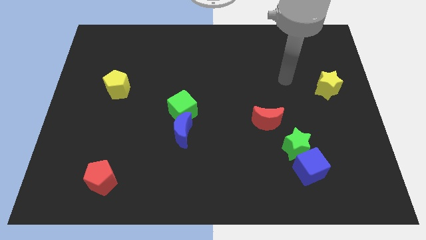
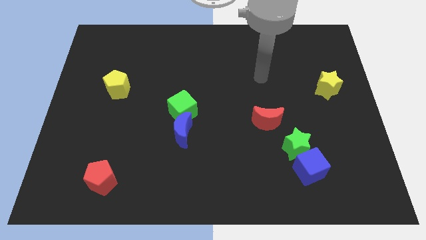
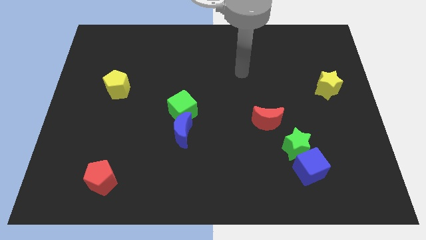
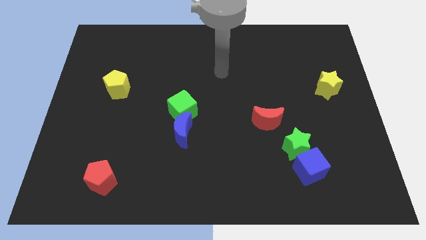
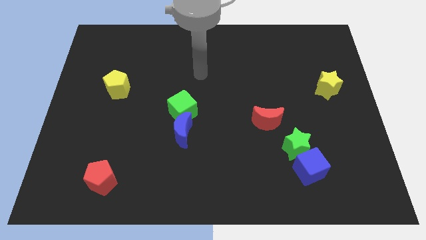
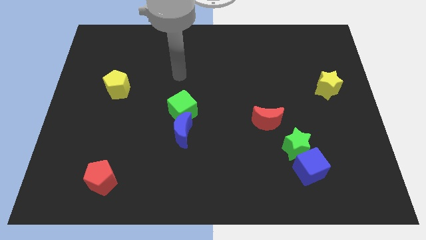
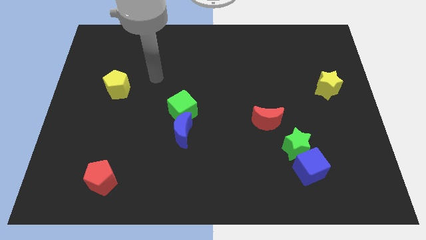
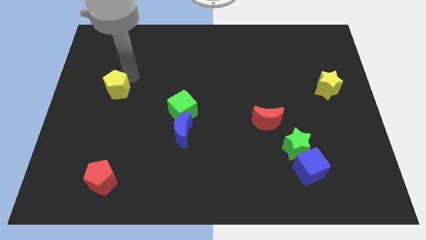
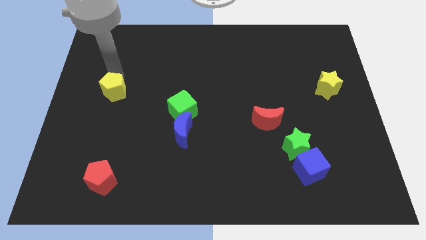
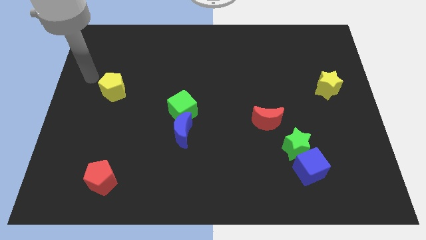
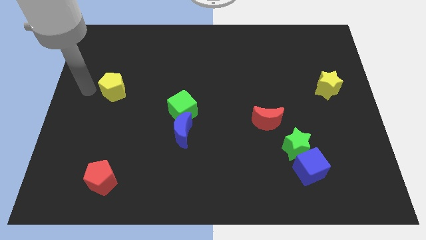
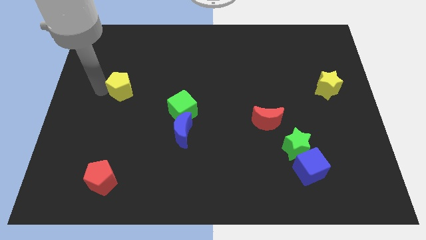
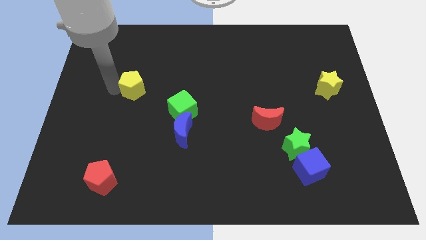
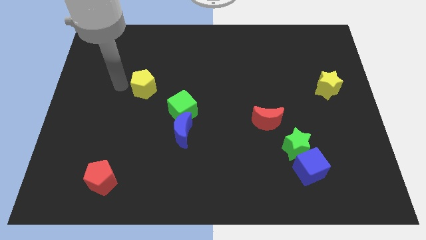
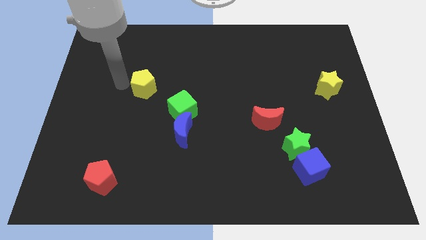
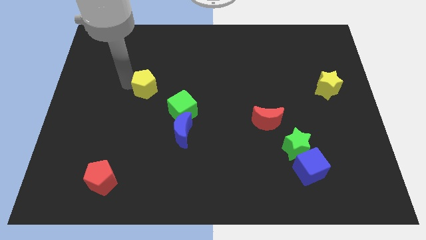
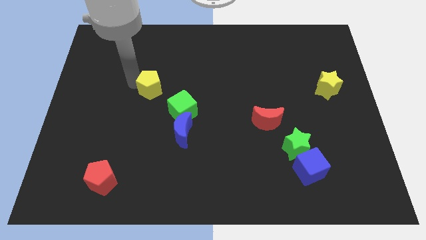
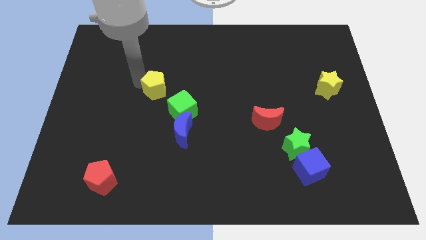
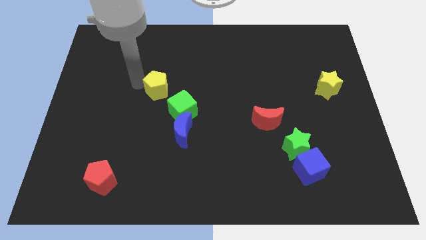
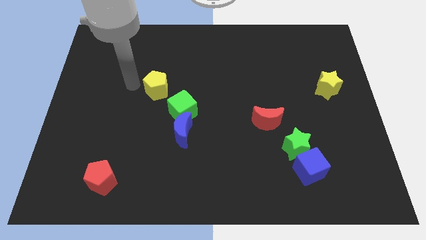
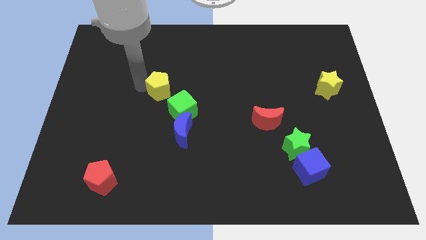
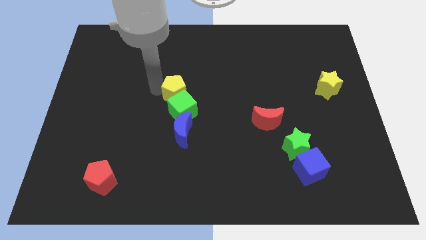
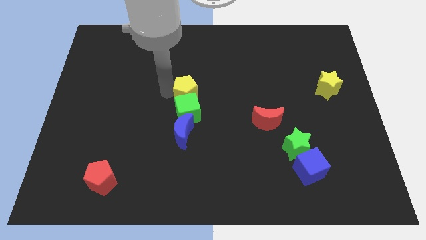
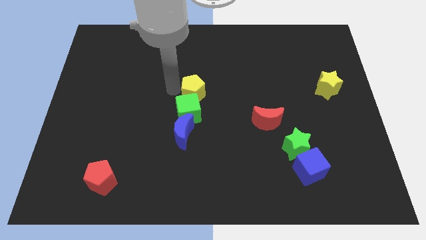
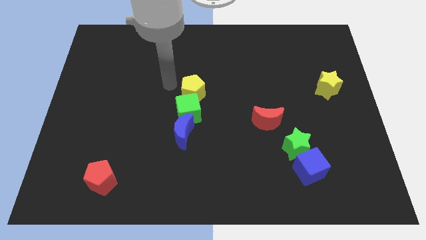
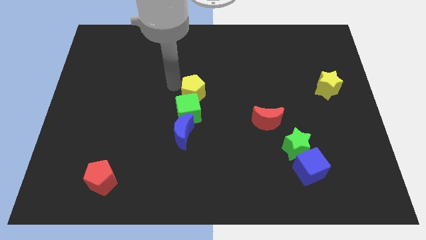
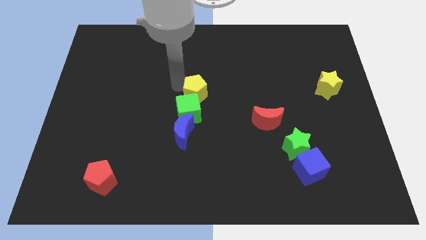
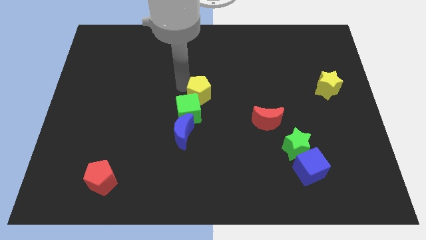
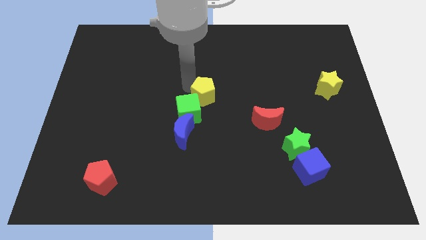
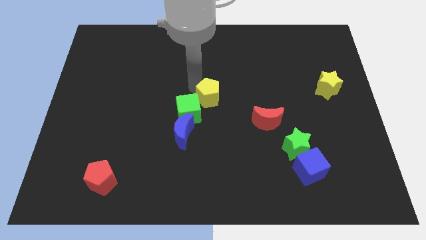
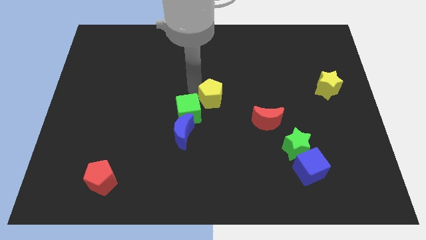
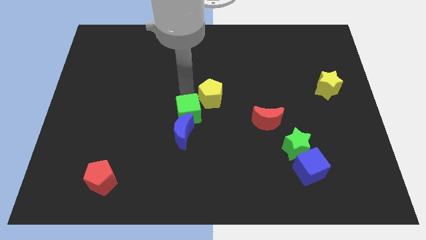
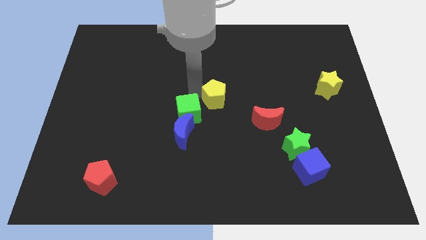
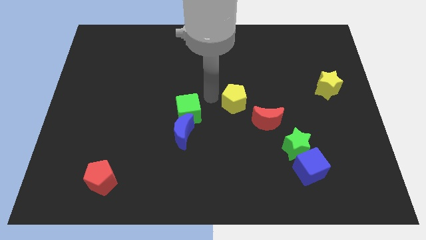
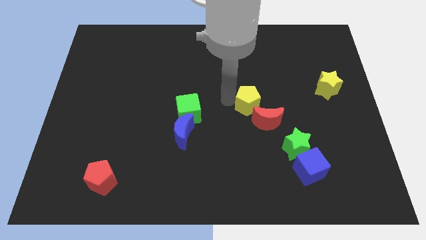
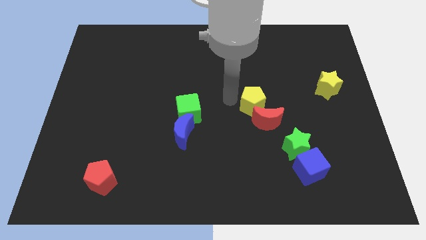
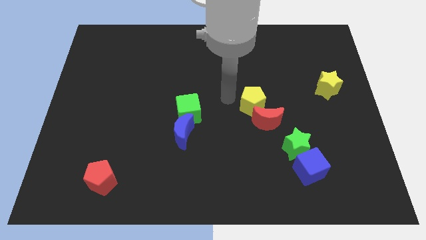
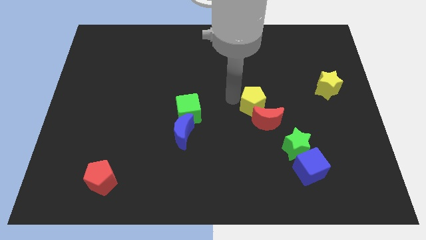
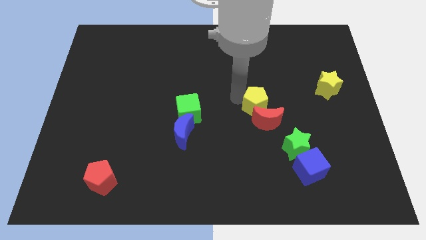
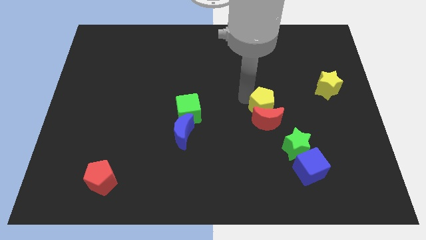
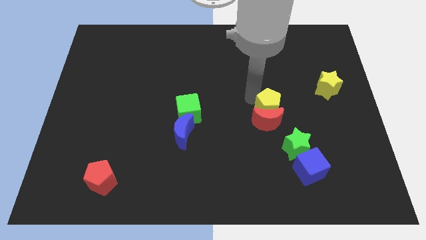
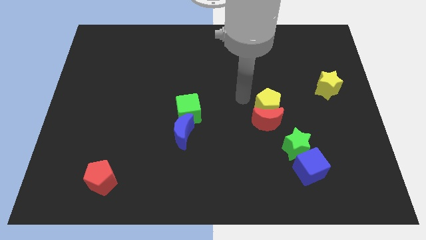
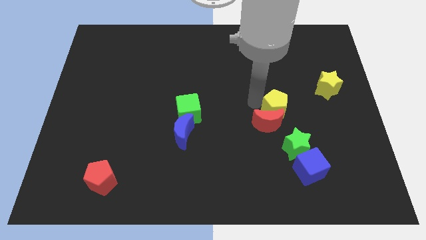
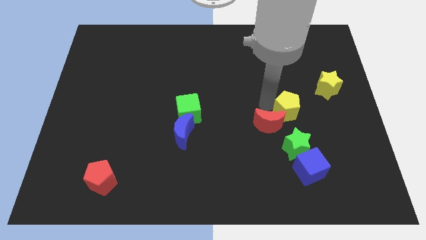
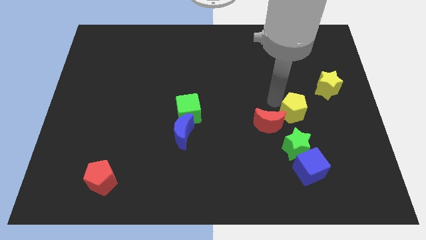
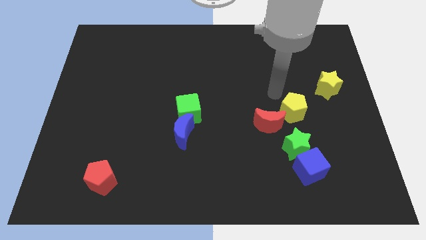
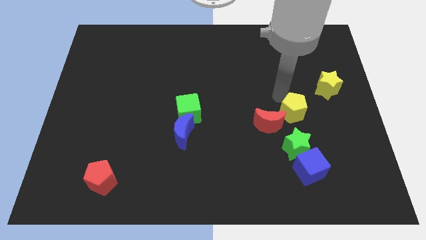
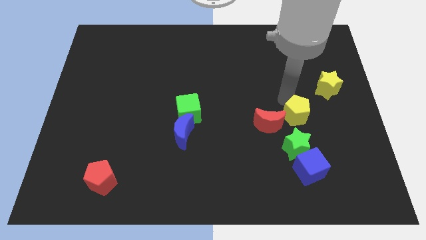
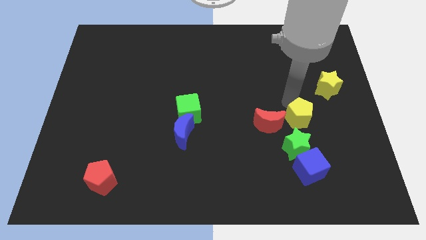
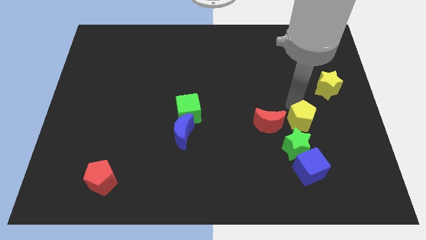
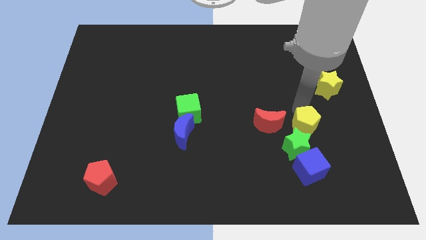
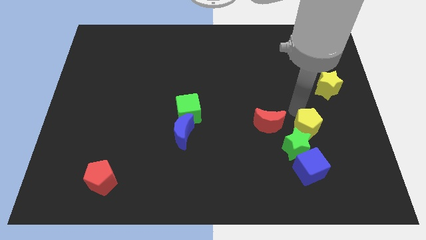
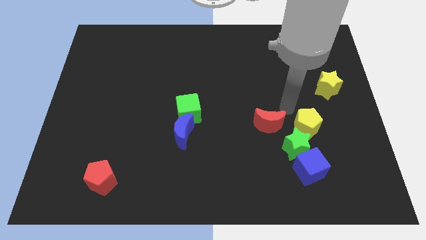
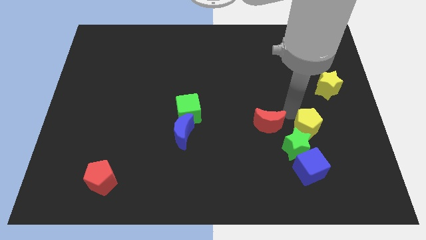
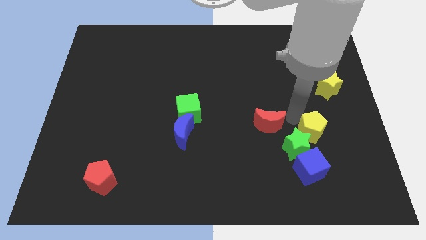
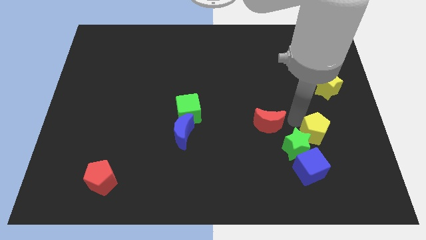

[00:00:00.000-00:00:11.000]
put the yellow pentagon to the top right of the blue cube

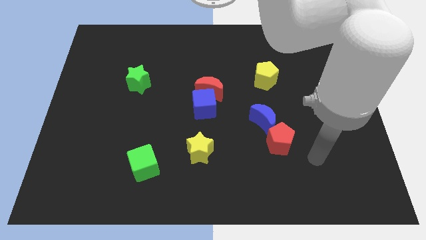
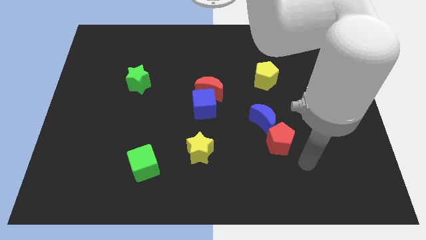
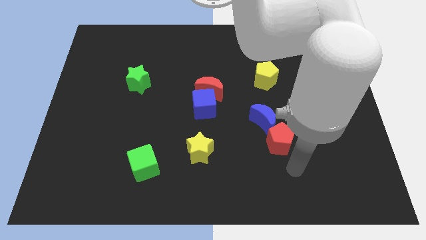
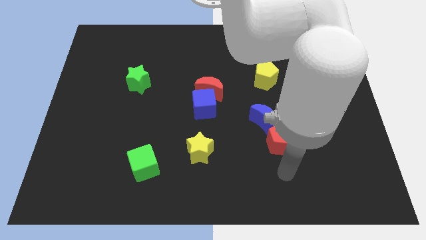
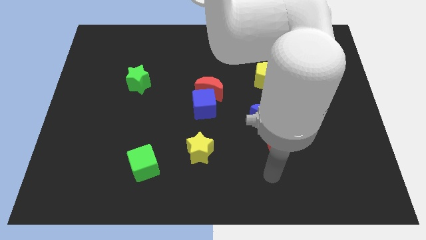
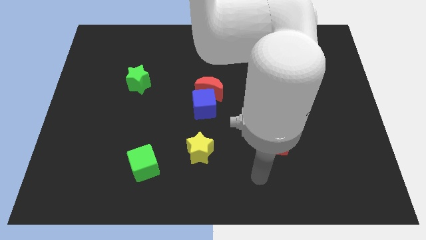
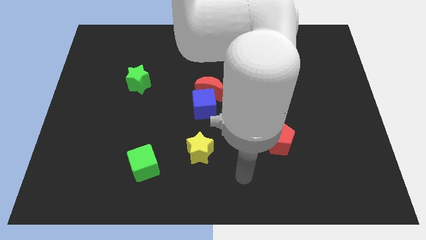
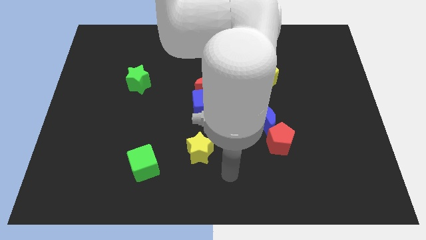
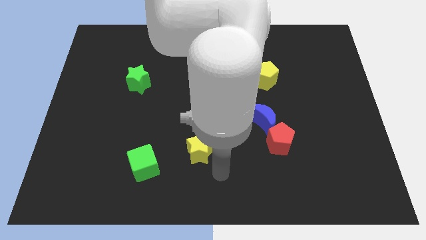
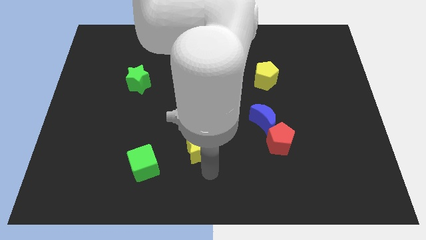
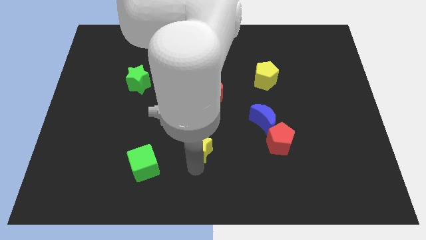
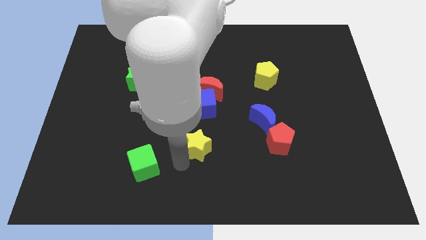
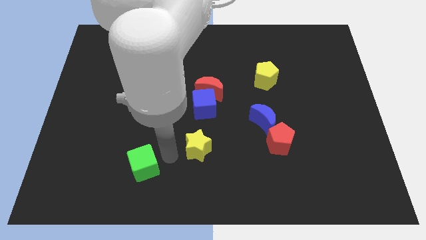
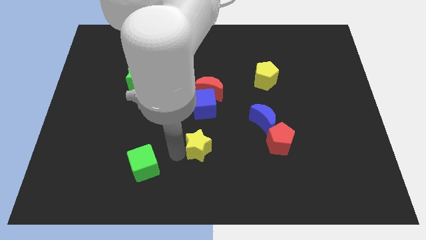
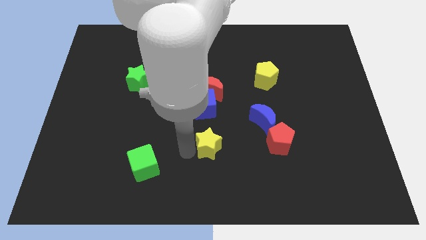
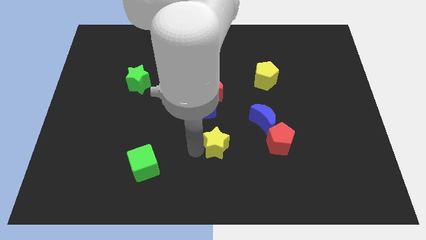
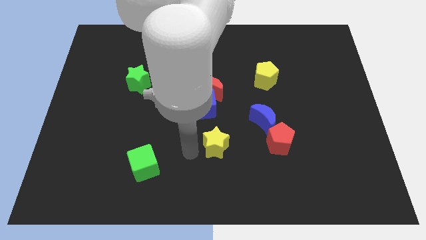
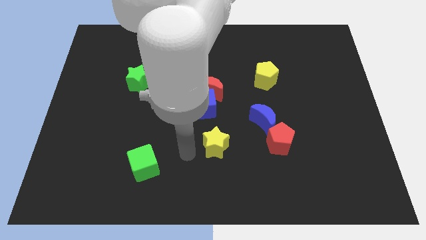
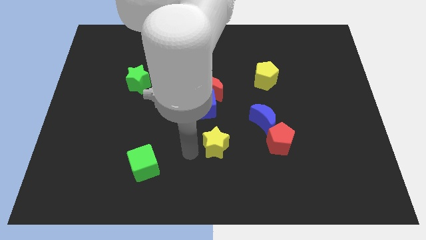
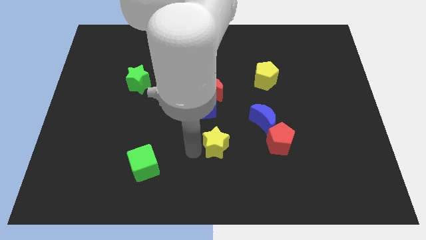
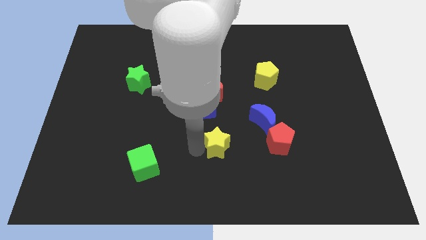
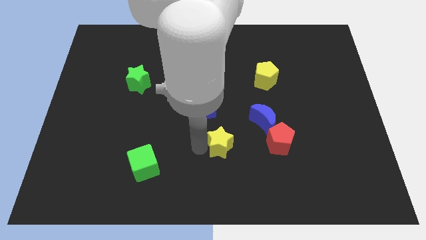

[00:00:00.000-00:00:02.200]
push the yellow star to the bottom left of the blue moon

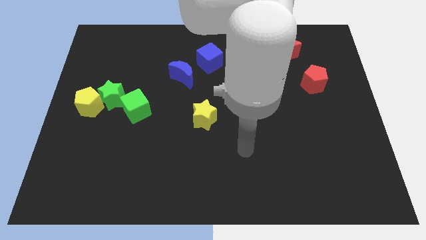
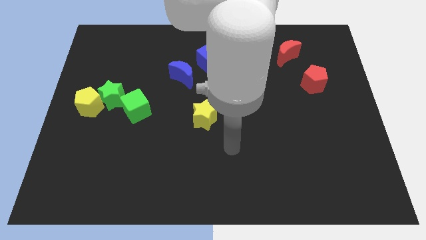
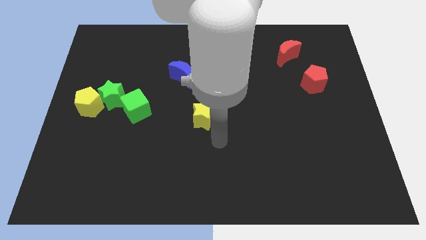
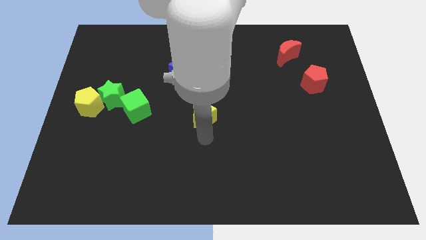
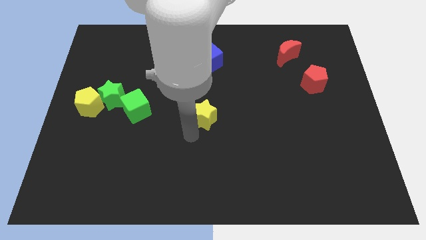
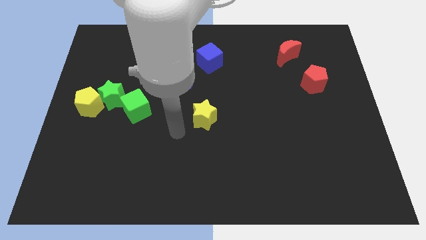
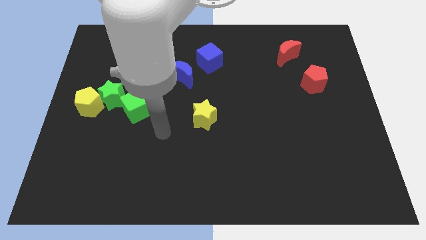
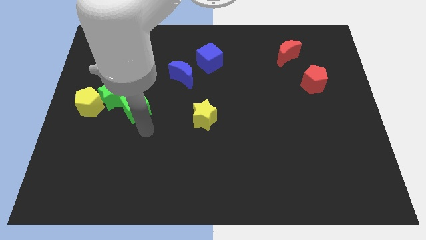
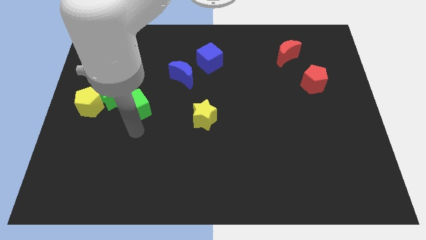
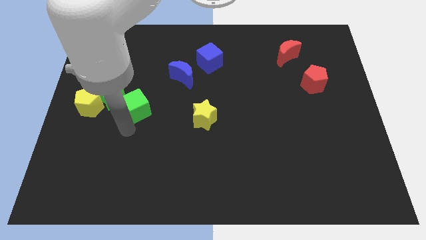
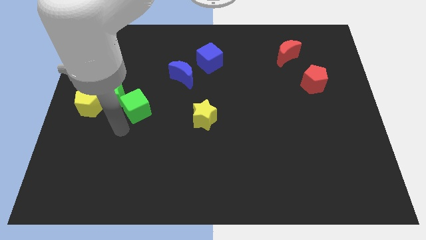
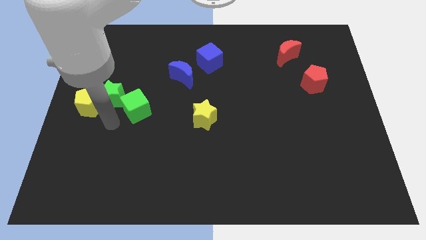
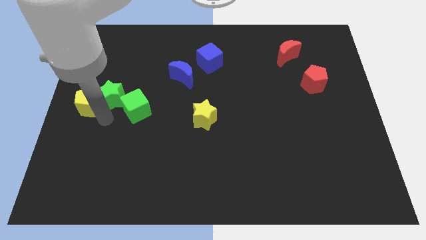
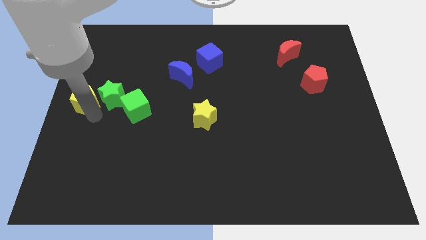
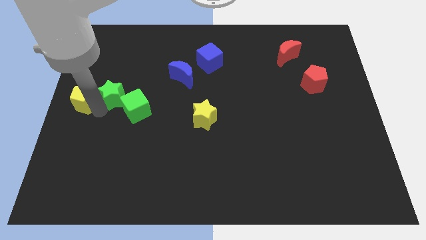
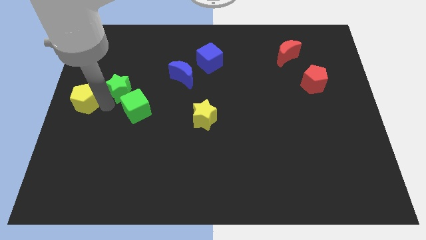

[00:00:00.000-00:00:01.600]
move the green star above the green cube
